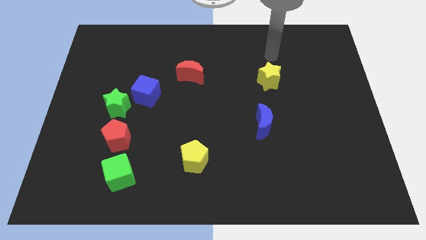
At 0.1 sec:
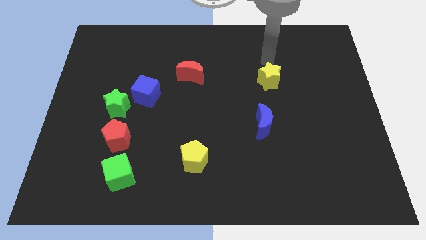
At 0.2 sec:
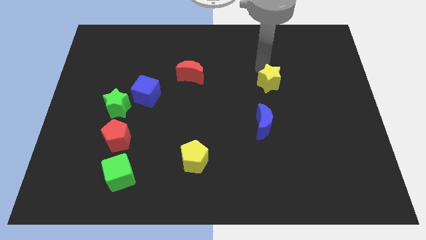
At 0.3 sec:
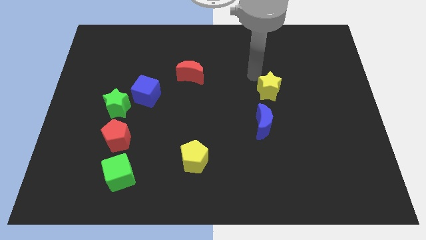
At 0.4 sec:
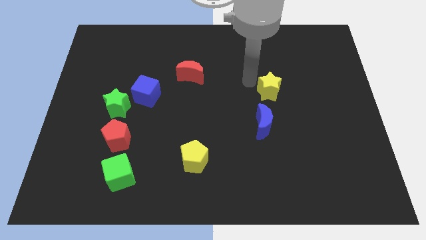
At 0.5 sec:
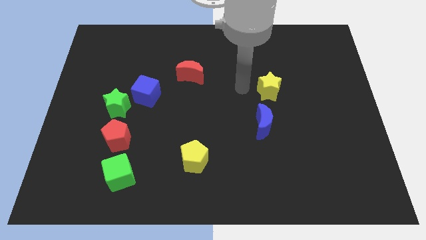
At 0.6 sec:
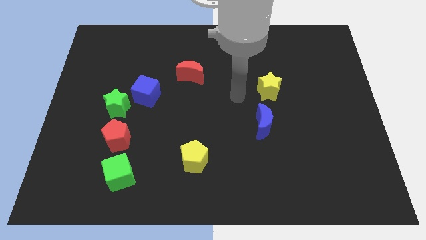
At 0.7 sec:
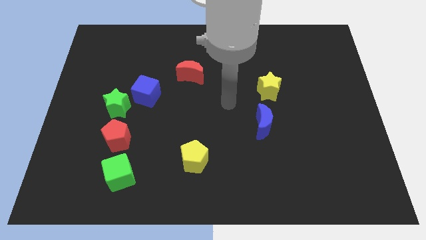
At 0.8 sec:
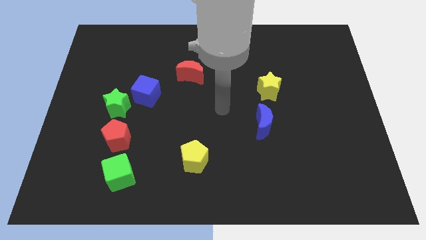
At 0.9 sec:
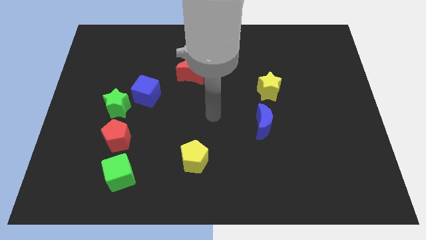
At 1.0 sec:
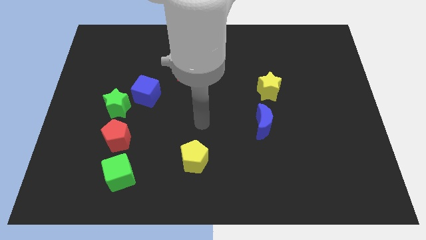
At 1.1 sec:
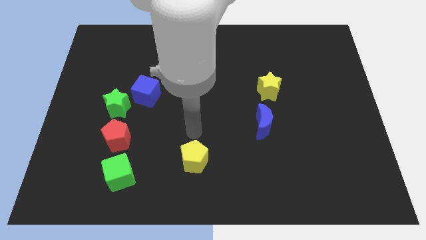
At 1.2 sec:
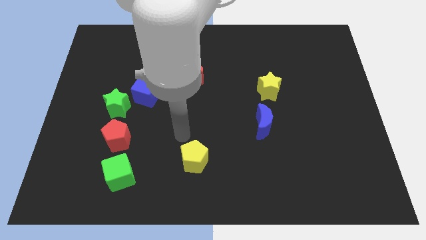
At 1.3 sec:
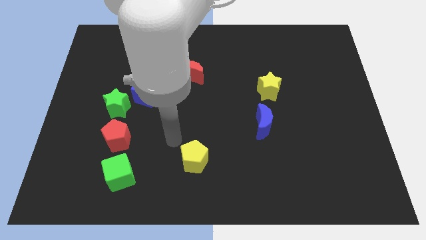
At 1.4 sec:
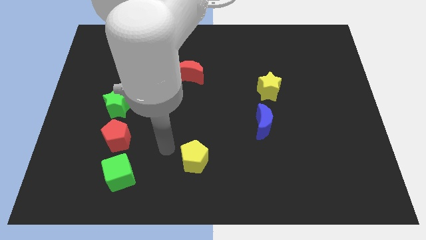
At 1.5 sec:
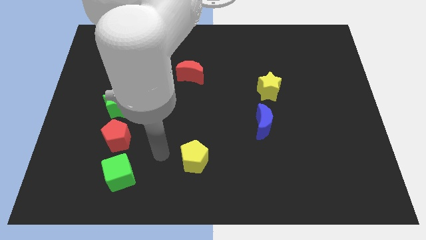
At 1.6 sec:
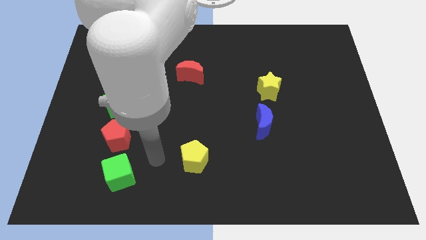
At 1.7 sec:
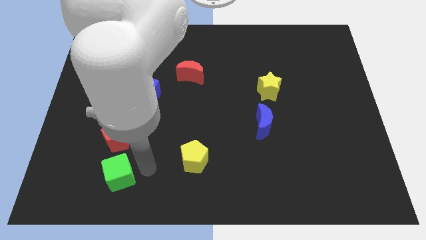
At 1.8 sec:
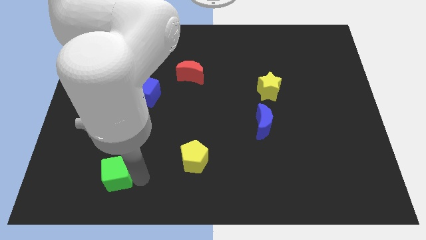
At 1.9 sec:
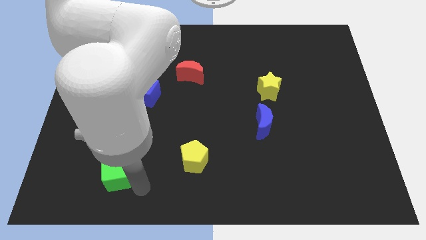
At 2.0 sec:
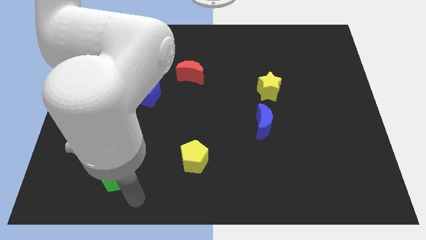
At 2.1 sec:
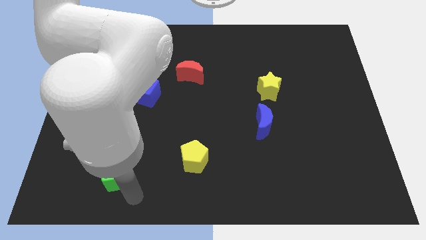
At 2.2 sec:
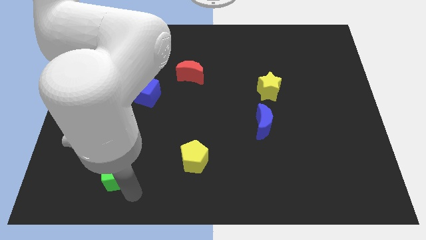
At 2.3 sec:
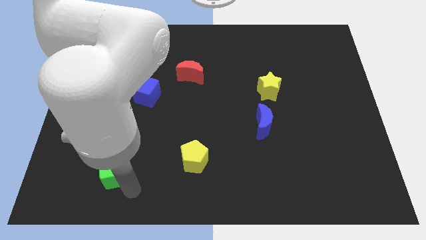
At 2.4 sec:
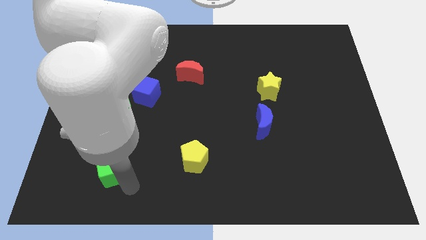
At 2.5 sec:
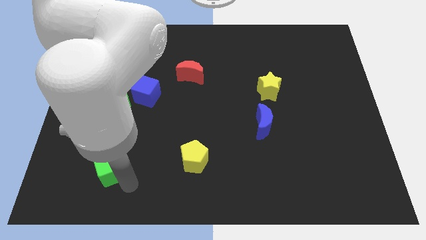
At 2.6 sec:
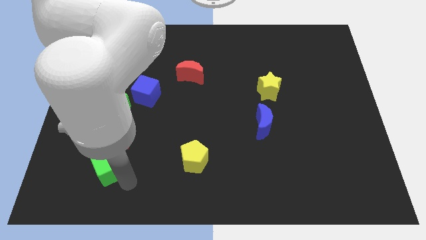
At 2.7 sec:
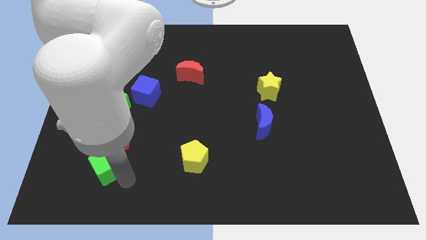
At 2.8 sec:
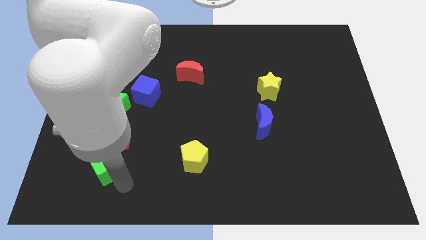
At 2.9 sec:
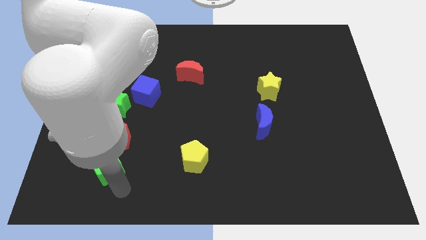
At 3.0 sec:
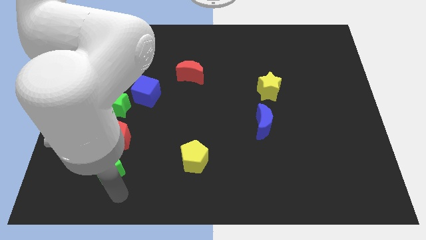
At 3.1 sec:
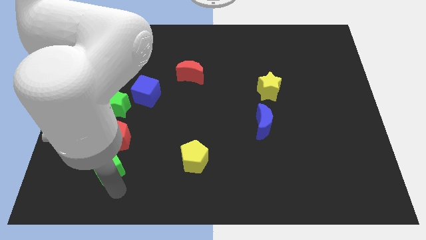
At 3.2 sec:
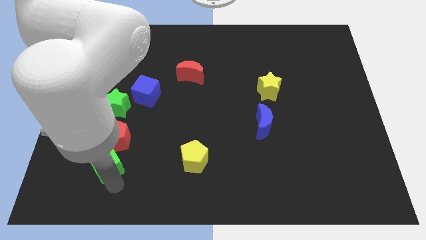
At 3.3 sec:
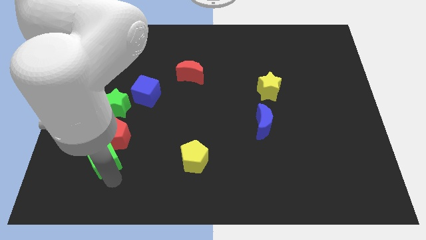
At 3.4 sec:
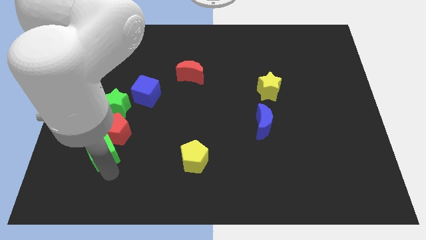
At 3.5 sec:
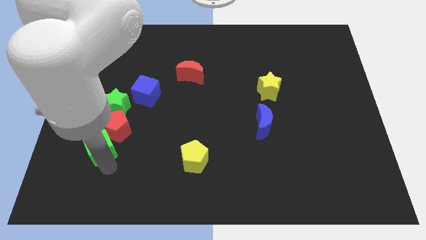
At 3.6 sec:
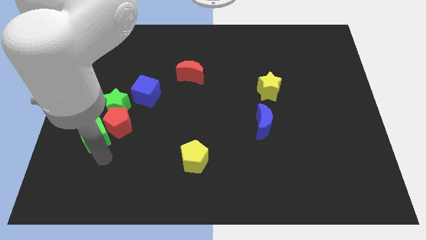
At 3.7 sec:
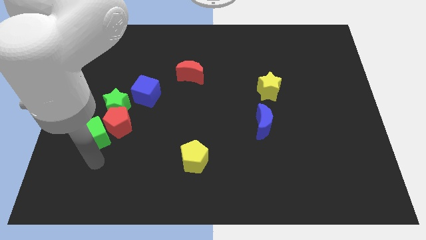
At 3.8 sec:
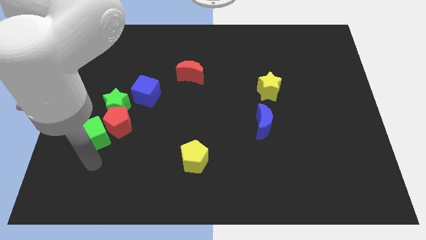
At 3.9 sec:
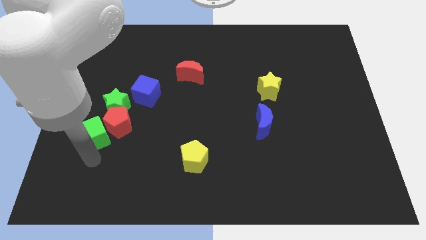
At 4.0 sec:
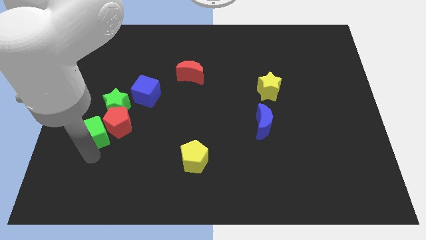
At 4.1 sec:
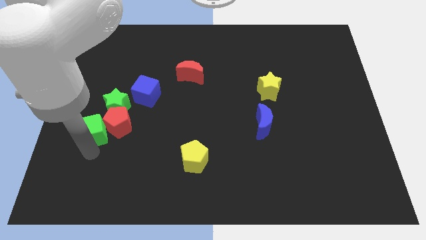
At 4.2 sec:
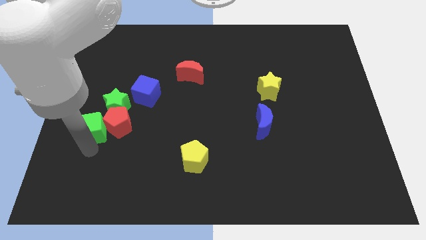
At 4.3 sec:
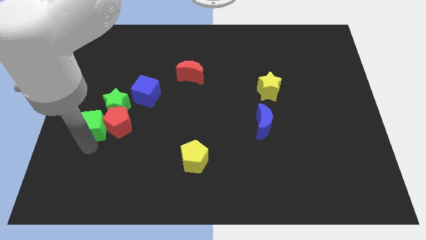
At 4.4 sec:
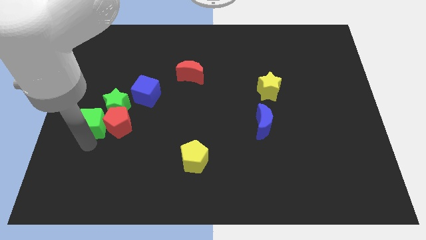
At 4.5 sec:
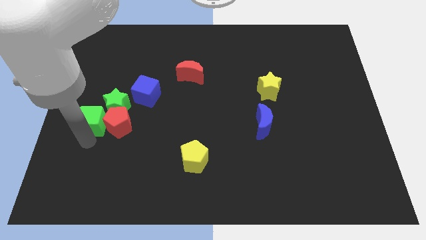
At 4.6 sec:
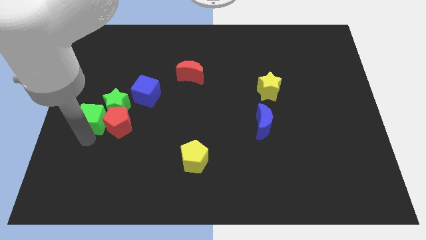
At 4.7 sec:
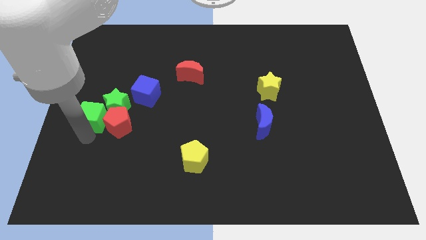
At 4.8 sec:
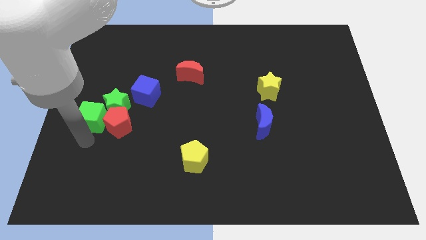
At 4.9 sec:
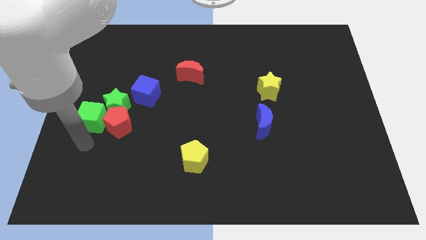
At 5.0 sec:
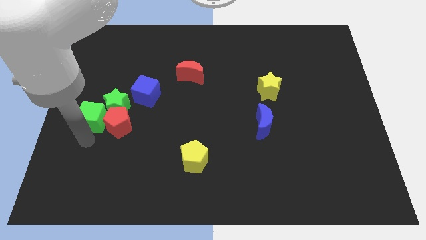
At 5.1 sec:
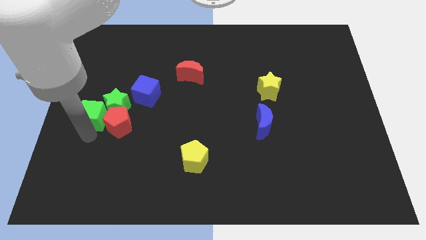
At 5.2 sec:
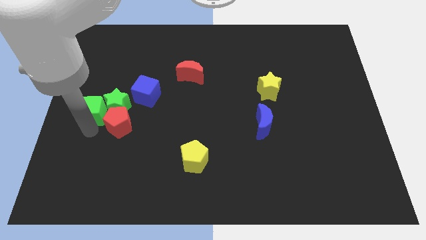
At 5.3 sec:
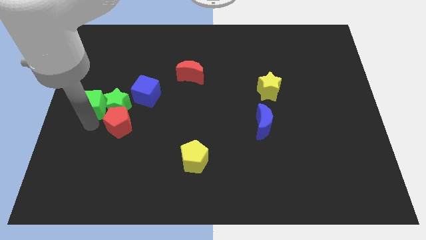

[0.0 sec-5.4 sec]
move the green cube to the left of the blue cube

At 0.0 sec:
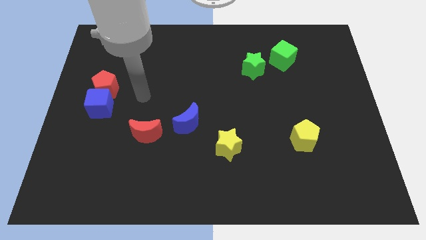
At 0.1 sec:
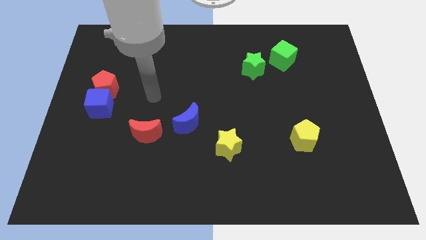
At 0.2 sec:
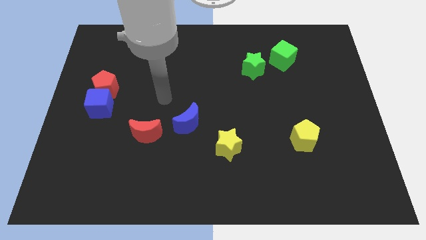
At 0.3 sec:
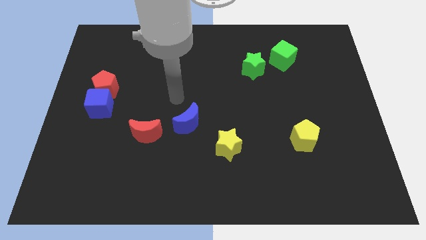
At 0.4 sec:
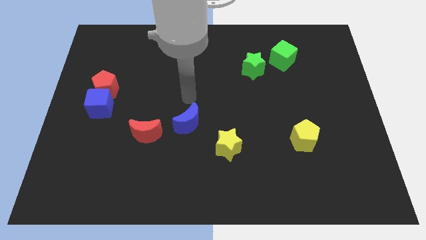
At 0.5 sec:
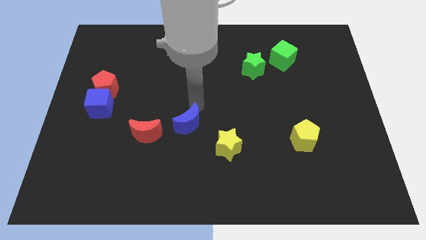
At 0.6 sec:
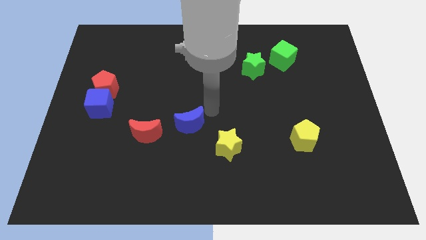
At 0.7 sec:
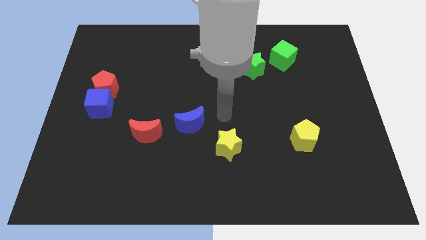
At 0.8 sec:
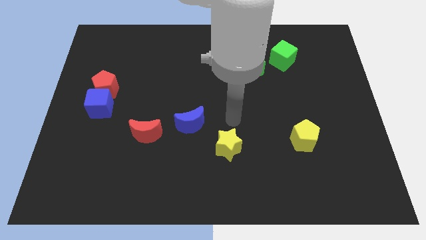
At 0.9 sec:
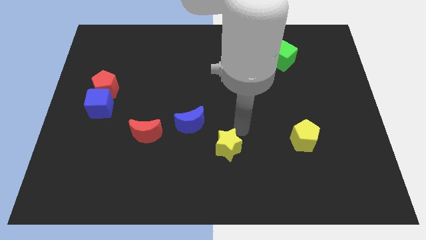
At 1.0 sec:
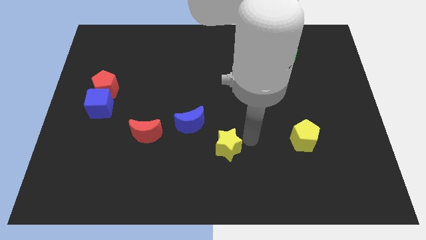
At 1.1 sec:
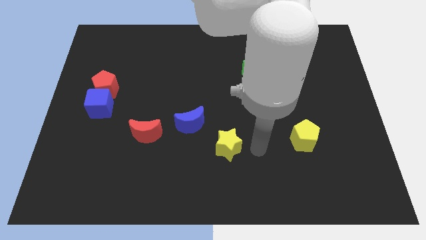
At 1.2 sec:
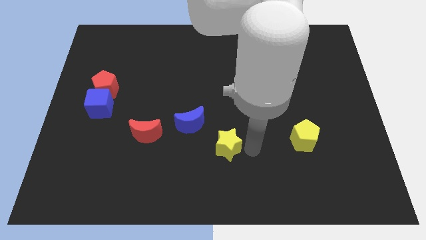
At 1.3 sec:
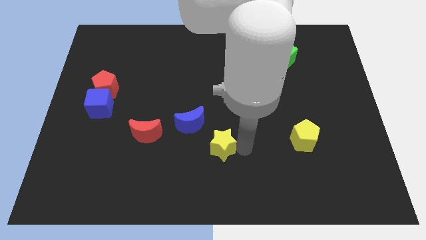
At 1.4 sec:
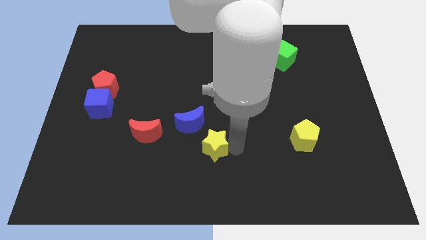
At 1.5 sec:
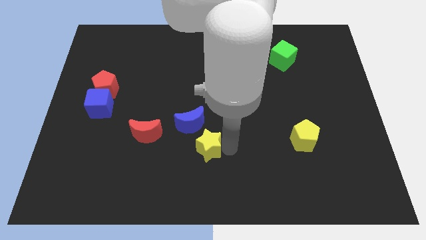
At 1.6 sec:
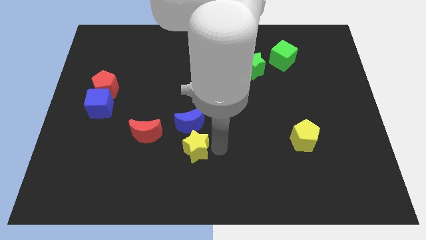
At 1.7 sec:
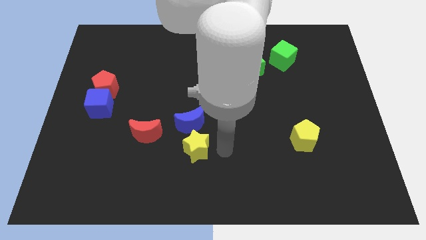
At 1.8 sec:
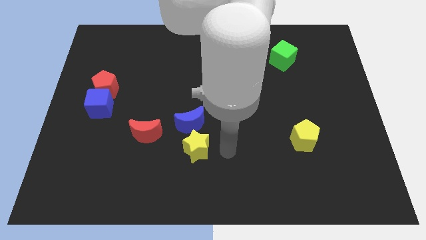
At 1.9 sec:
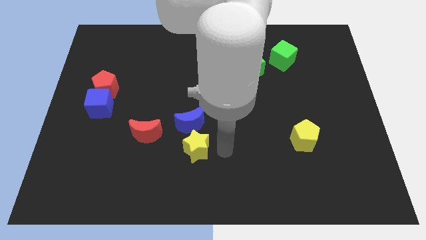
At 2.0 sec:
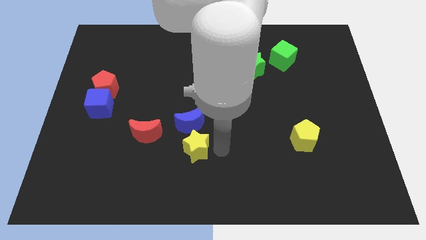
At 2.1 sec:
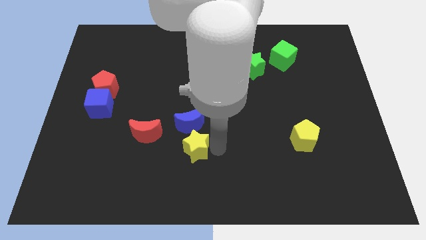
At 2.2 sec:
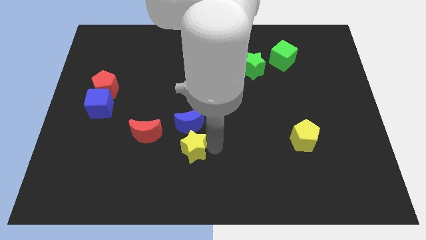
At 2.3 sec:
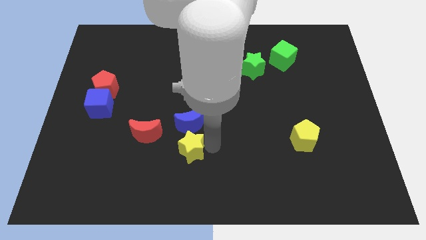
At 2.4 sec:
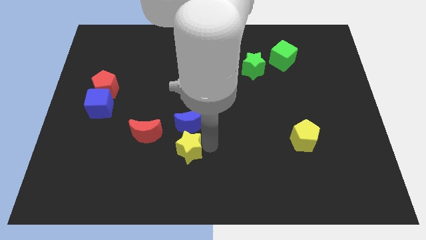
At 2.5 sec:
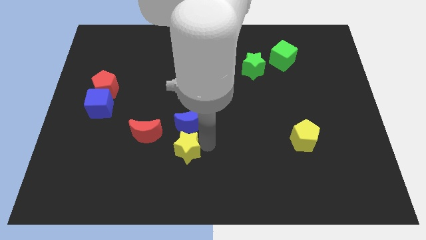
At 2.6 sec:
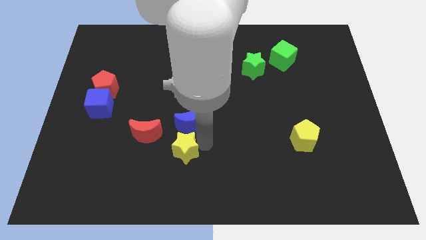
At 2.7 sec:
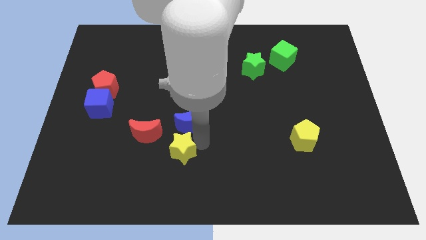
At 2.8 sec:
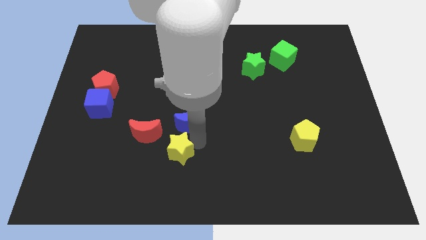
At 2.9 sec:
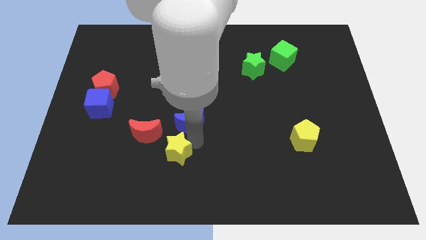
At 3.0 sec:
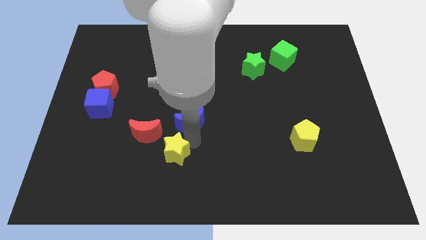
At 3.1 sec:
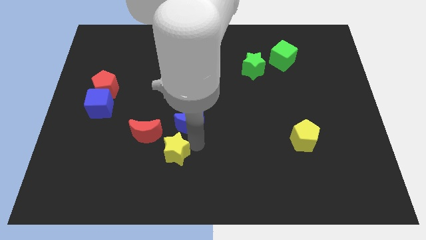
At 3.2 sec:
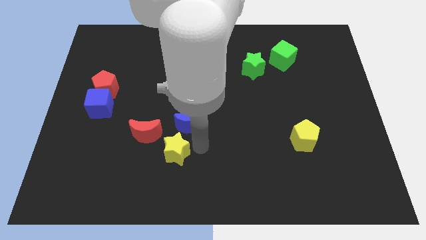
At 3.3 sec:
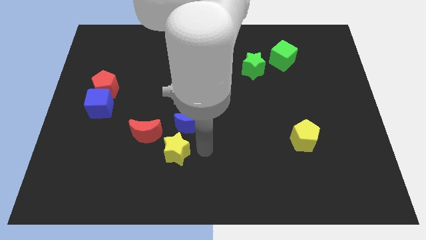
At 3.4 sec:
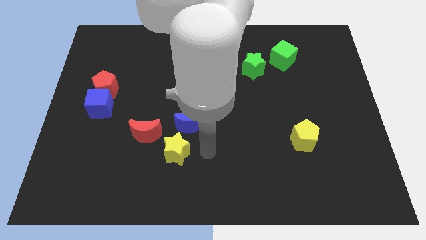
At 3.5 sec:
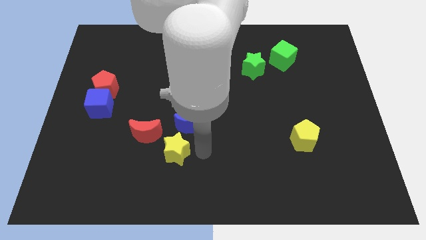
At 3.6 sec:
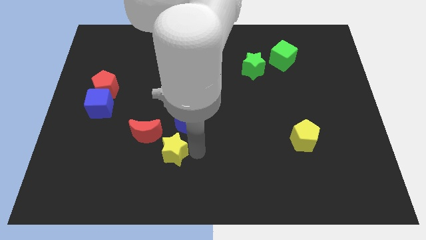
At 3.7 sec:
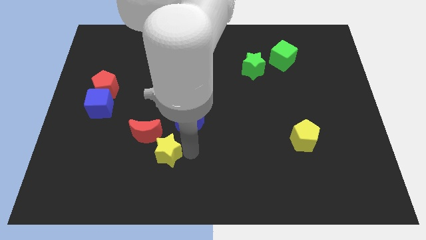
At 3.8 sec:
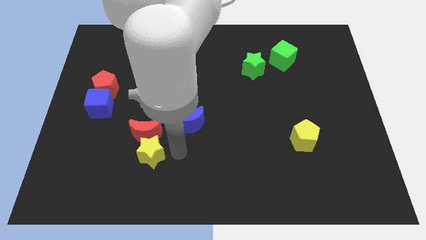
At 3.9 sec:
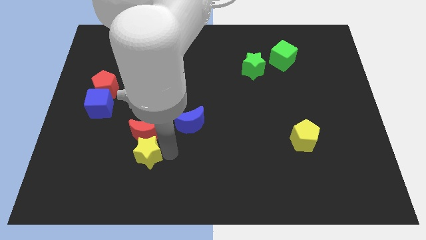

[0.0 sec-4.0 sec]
move the yellow star to the bottom left of the red moon
